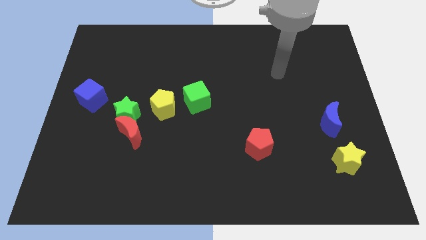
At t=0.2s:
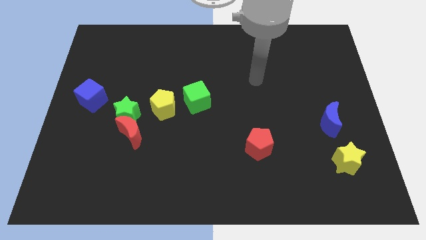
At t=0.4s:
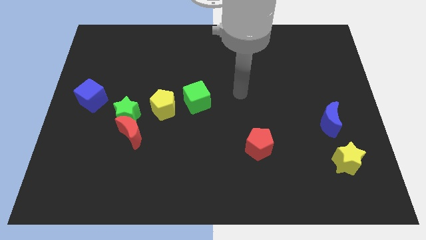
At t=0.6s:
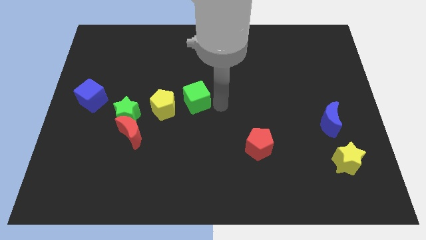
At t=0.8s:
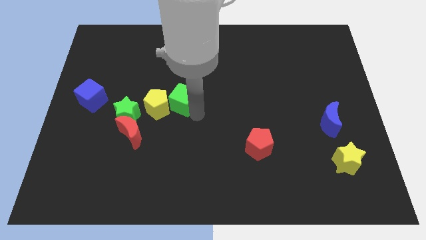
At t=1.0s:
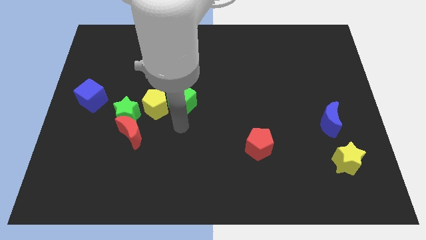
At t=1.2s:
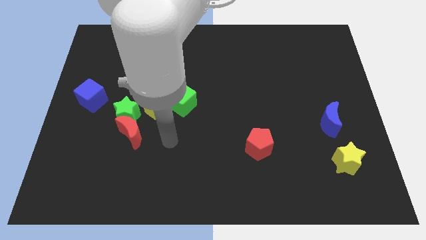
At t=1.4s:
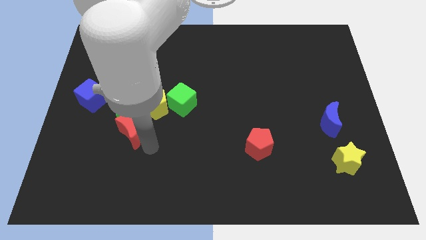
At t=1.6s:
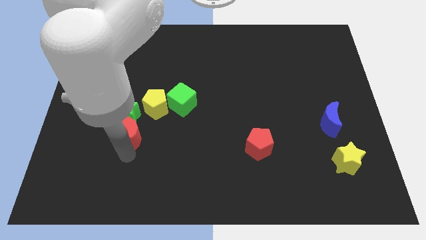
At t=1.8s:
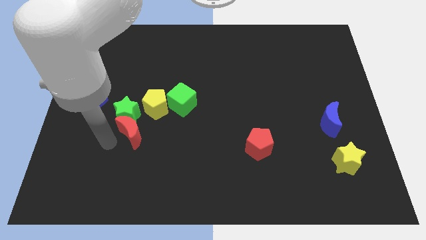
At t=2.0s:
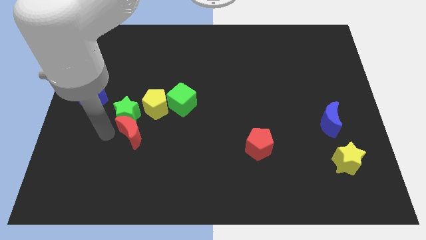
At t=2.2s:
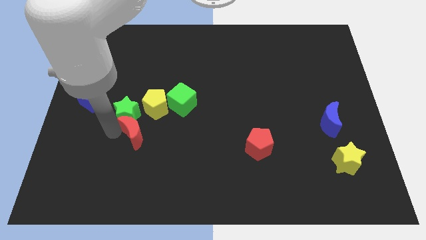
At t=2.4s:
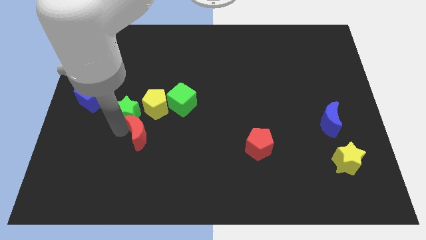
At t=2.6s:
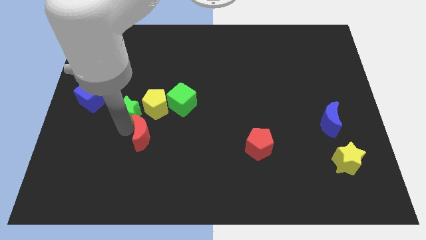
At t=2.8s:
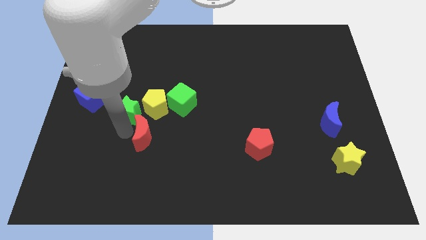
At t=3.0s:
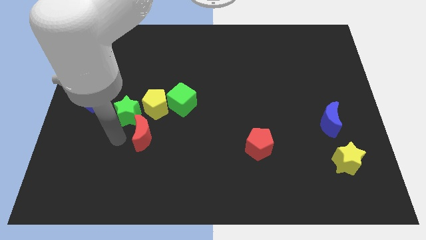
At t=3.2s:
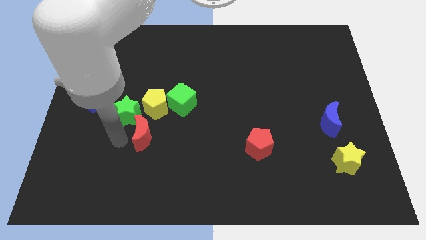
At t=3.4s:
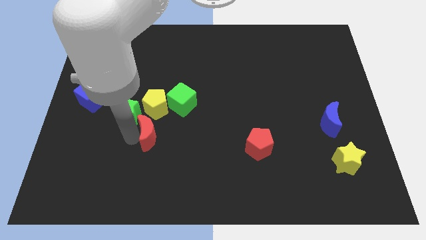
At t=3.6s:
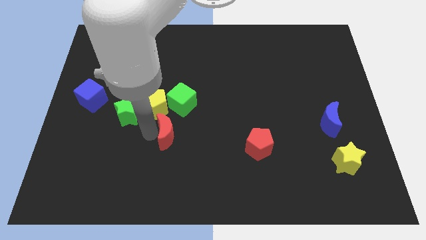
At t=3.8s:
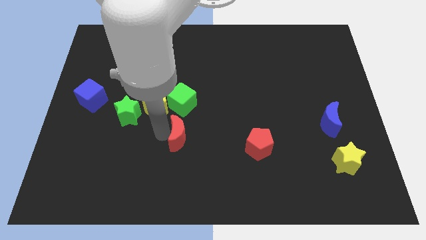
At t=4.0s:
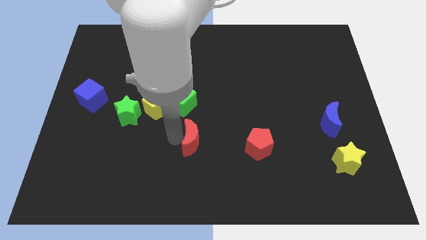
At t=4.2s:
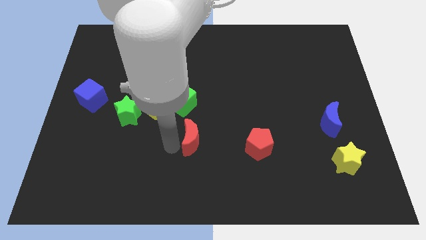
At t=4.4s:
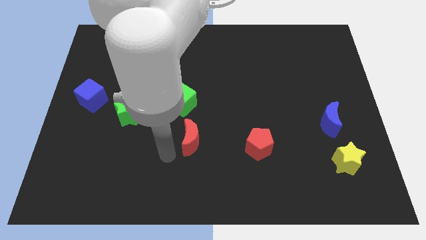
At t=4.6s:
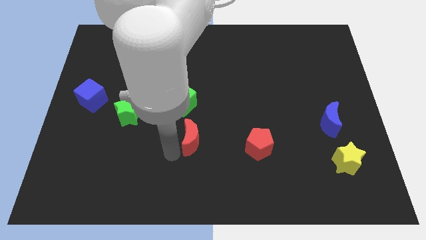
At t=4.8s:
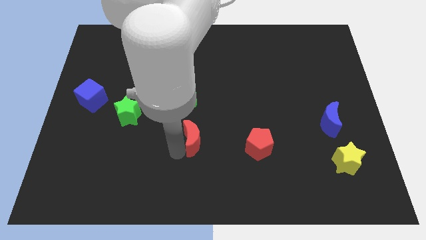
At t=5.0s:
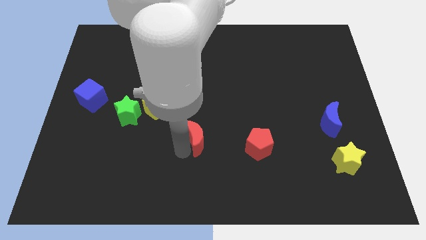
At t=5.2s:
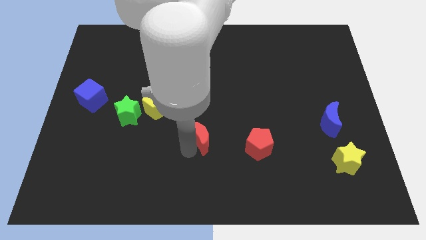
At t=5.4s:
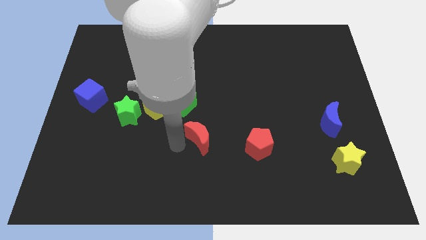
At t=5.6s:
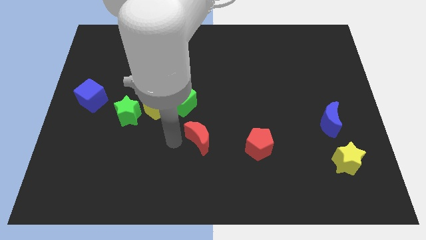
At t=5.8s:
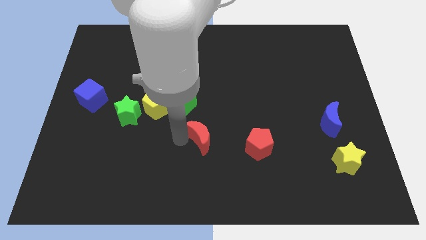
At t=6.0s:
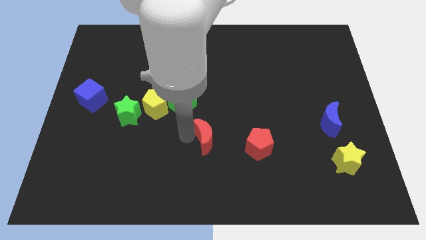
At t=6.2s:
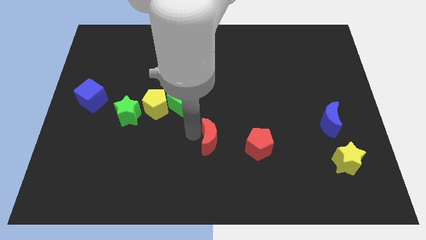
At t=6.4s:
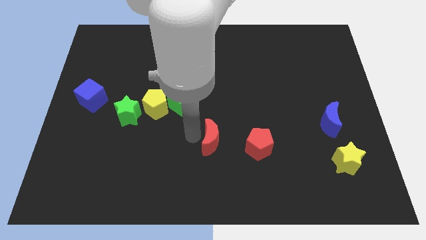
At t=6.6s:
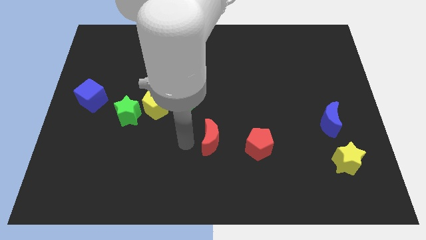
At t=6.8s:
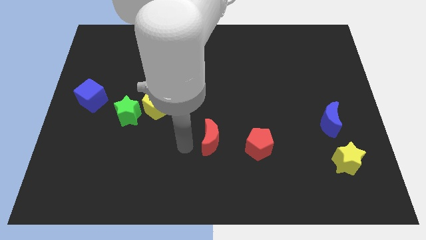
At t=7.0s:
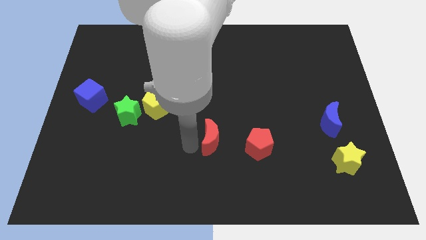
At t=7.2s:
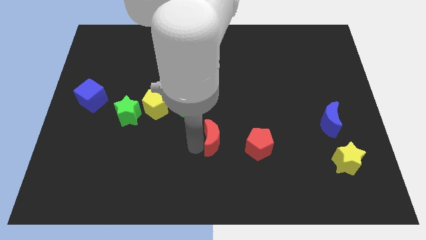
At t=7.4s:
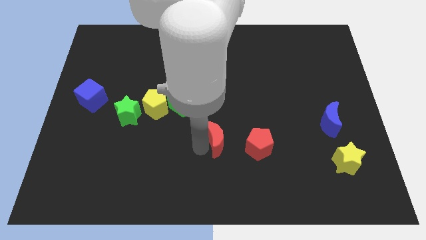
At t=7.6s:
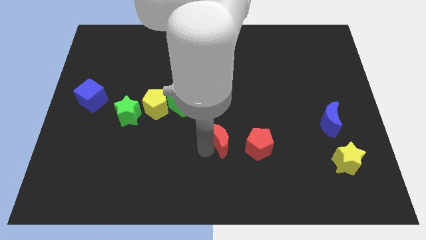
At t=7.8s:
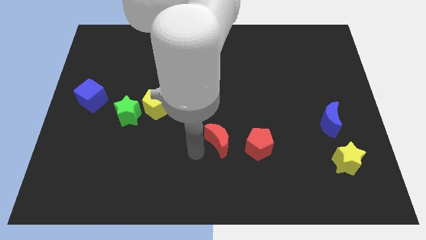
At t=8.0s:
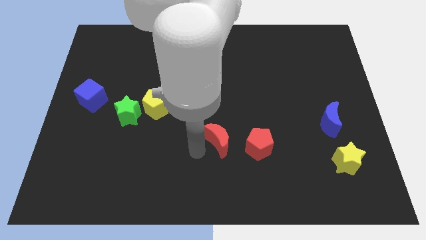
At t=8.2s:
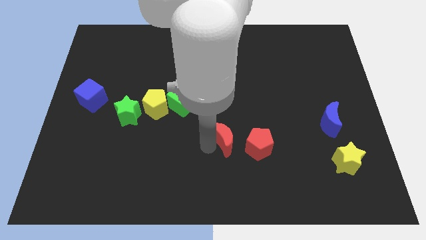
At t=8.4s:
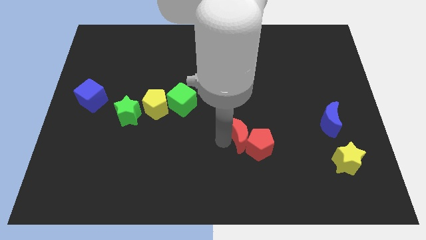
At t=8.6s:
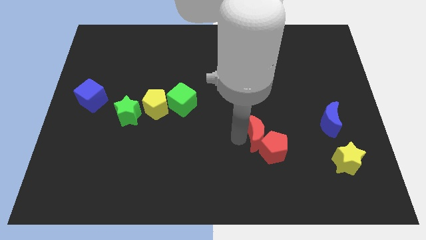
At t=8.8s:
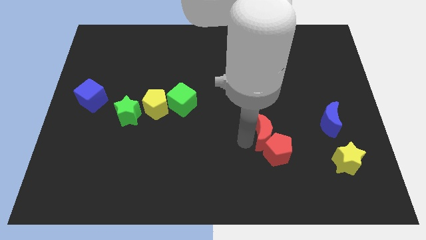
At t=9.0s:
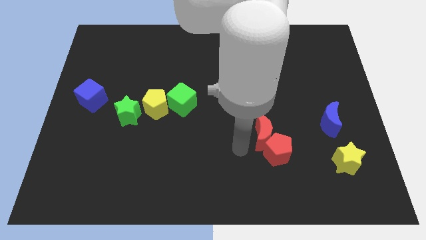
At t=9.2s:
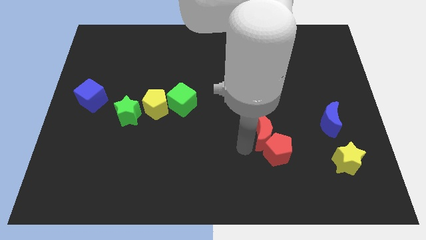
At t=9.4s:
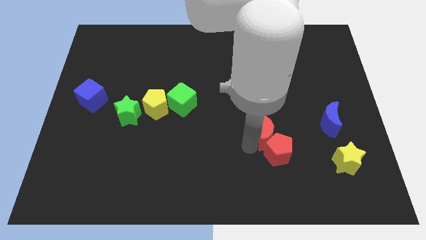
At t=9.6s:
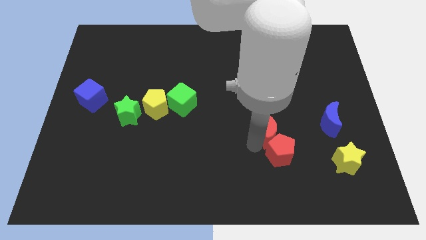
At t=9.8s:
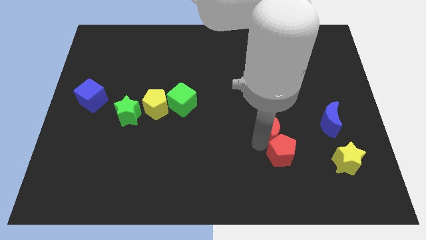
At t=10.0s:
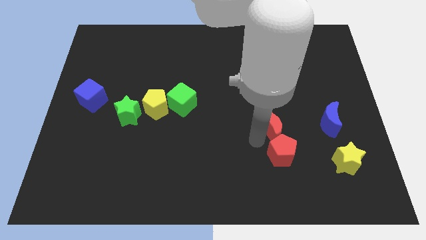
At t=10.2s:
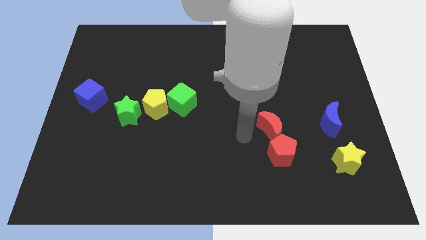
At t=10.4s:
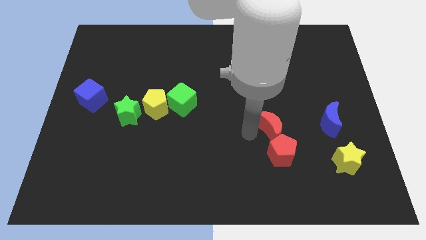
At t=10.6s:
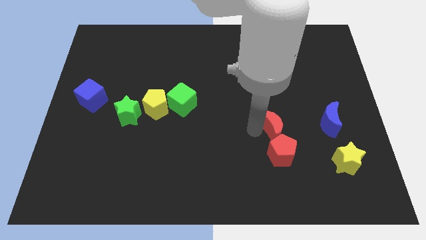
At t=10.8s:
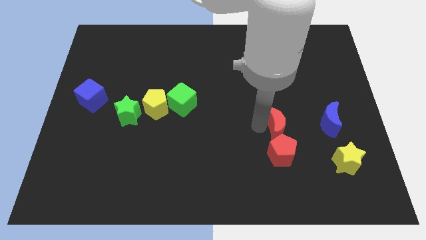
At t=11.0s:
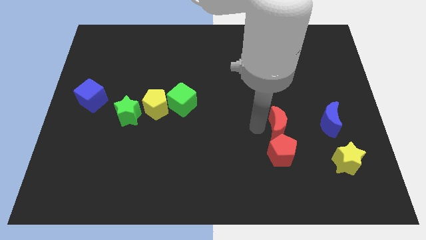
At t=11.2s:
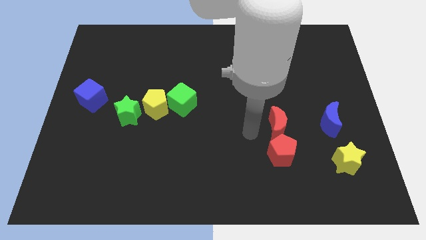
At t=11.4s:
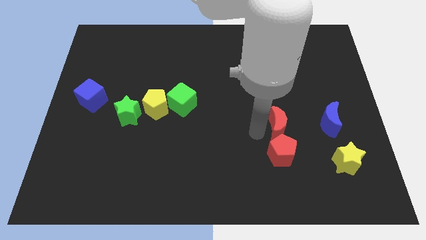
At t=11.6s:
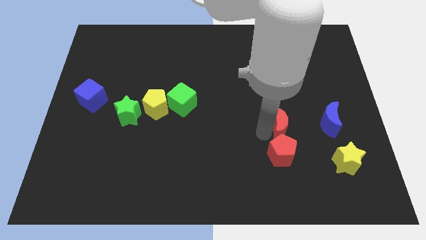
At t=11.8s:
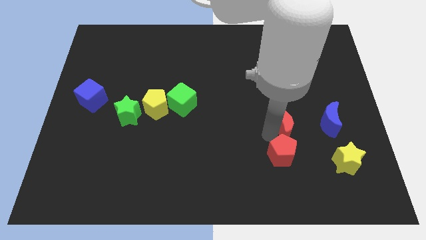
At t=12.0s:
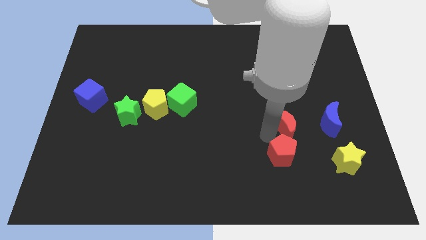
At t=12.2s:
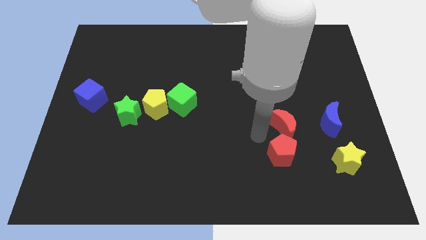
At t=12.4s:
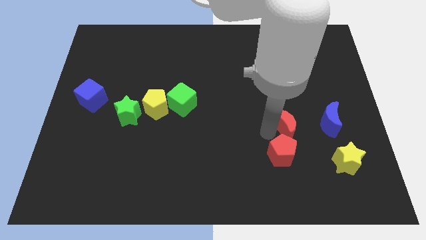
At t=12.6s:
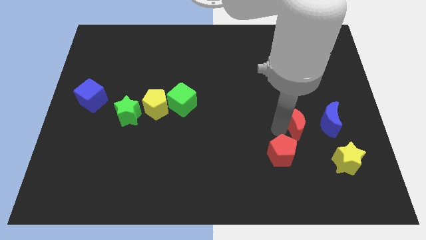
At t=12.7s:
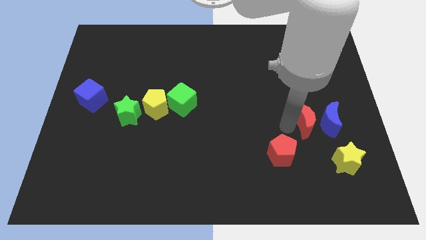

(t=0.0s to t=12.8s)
push the red moon to the blue moon
